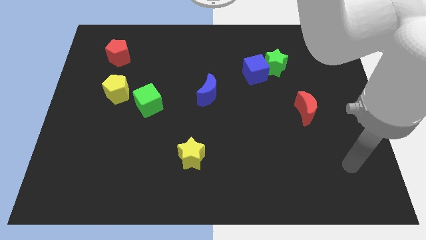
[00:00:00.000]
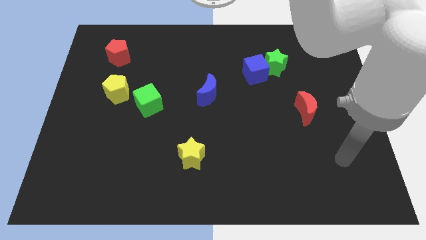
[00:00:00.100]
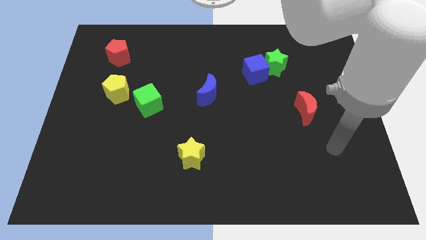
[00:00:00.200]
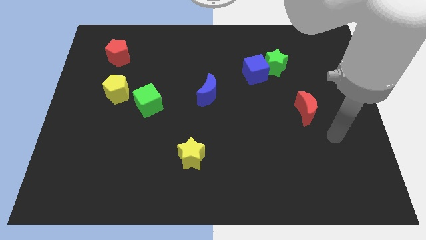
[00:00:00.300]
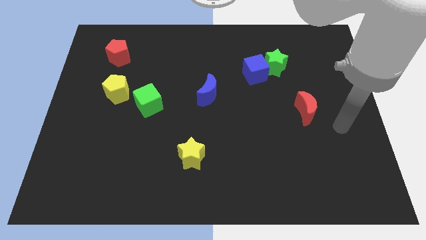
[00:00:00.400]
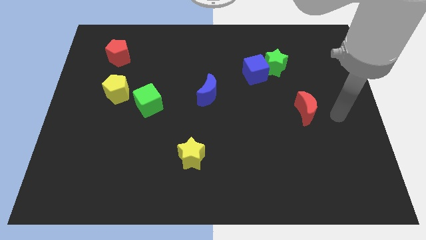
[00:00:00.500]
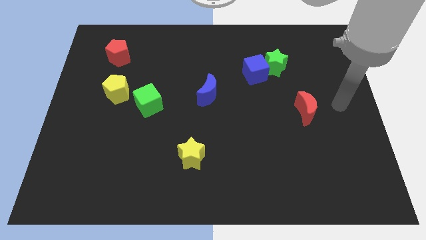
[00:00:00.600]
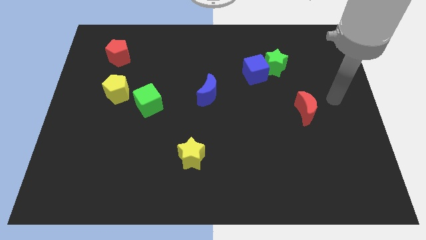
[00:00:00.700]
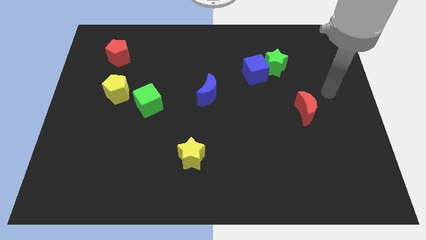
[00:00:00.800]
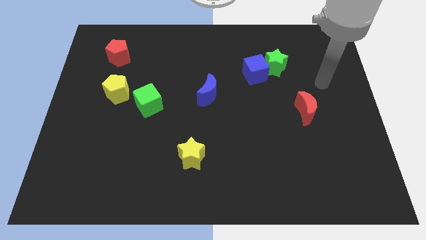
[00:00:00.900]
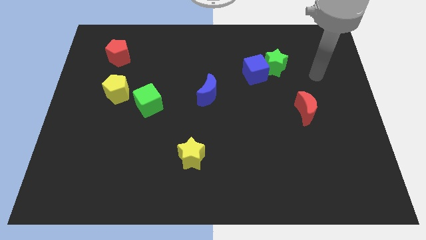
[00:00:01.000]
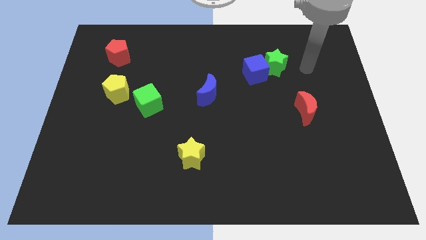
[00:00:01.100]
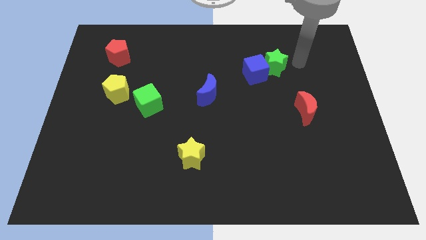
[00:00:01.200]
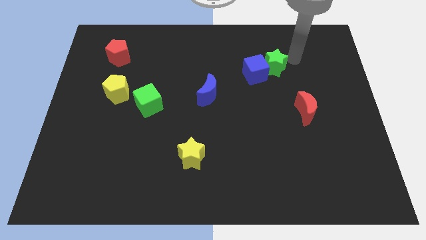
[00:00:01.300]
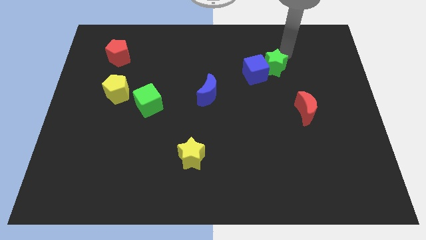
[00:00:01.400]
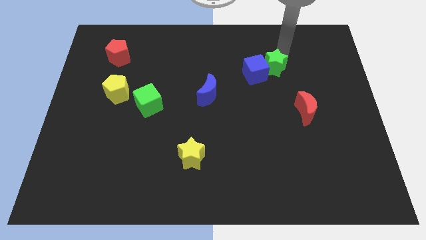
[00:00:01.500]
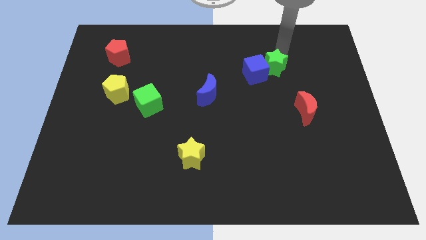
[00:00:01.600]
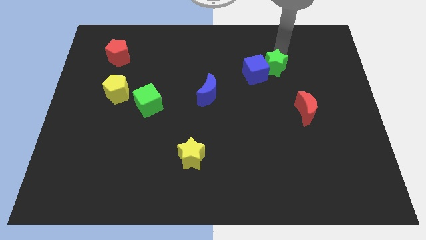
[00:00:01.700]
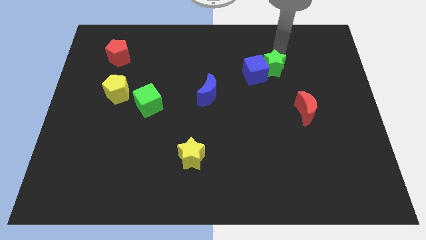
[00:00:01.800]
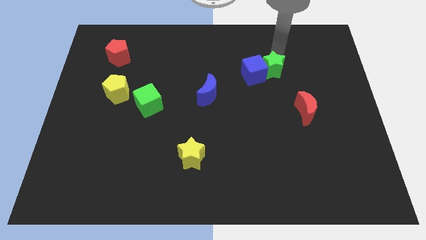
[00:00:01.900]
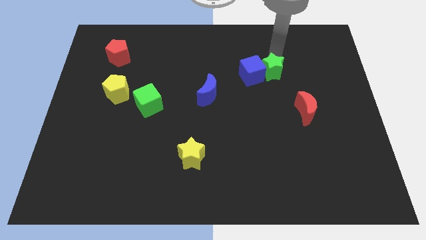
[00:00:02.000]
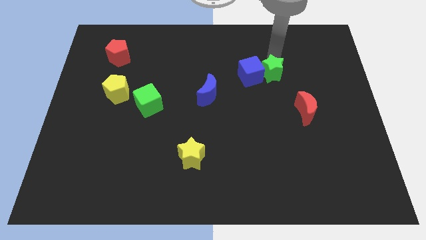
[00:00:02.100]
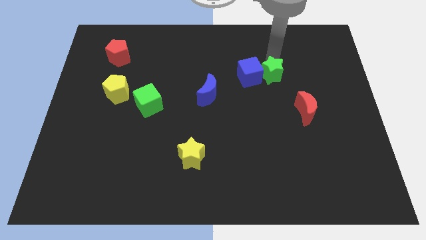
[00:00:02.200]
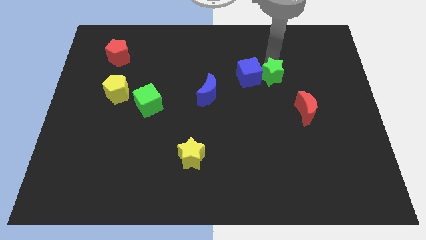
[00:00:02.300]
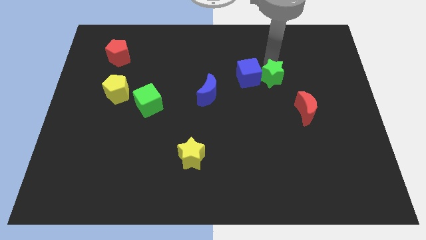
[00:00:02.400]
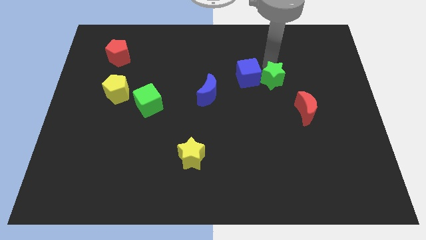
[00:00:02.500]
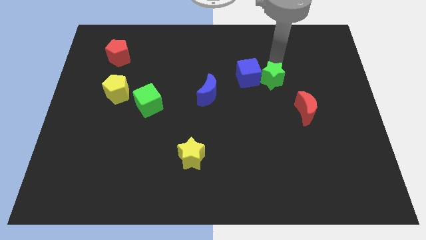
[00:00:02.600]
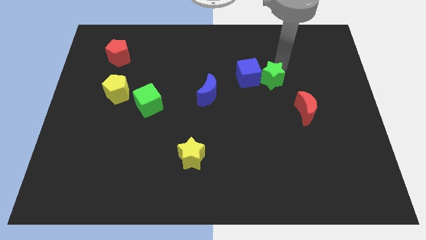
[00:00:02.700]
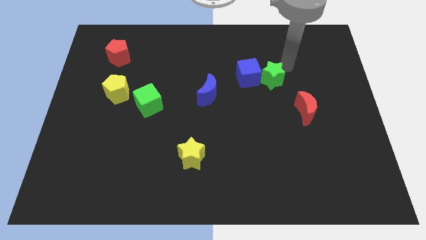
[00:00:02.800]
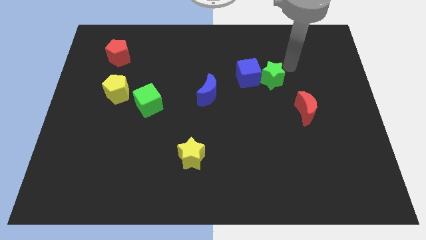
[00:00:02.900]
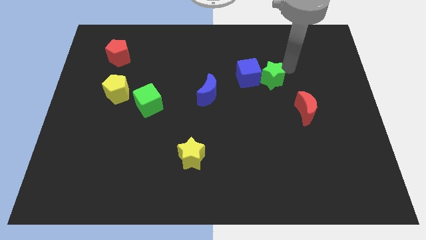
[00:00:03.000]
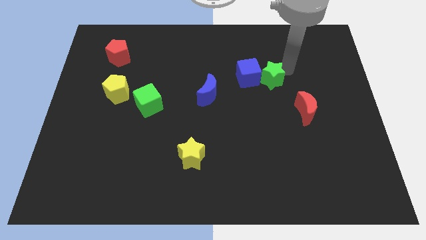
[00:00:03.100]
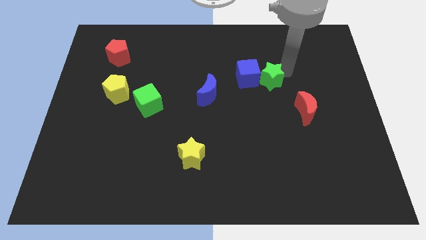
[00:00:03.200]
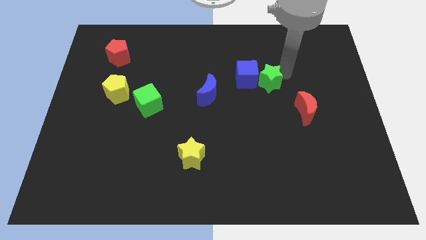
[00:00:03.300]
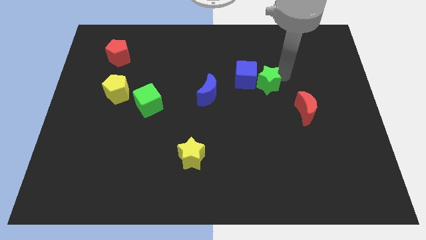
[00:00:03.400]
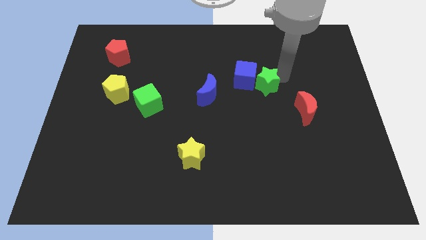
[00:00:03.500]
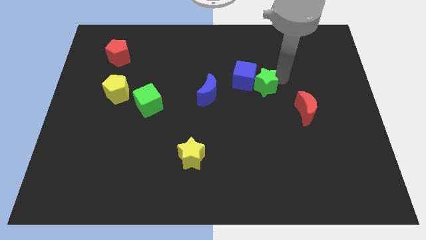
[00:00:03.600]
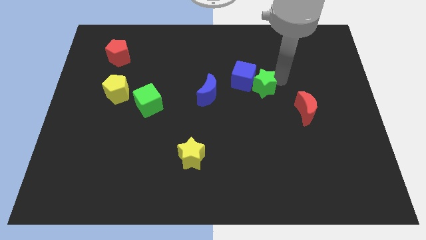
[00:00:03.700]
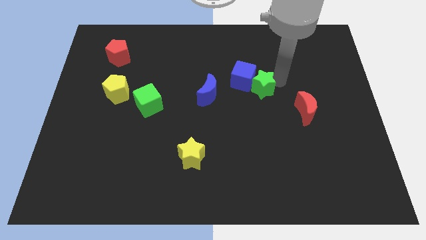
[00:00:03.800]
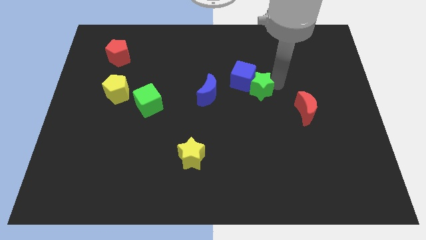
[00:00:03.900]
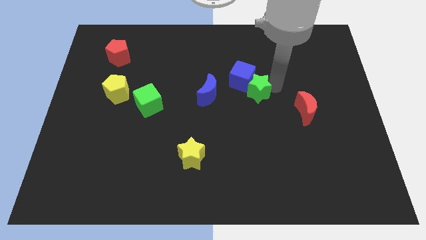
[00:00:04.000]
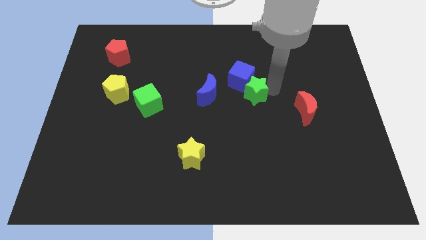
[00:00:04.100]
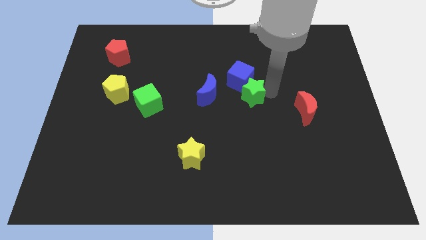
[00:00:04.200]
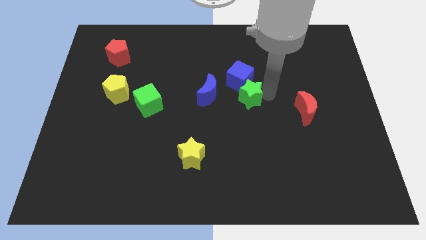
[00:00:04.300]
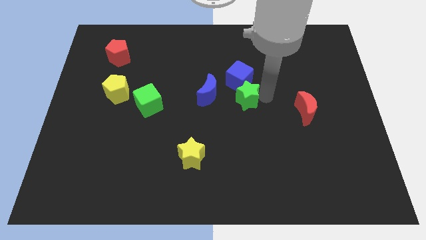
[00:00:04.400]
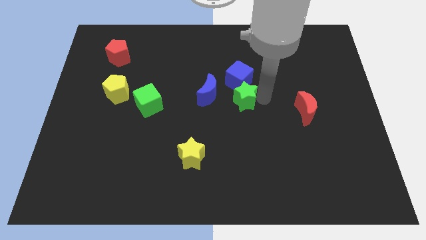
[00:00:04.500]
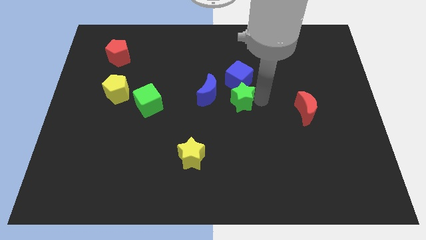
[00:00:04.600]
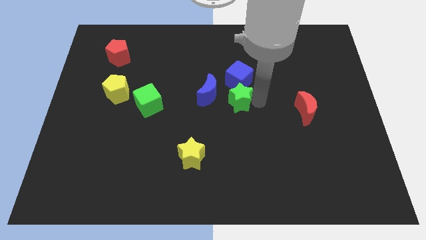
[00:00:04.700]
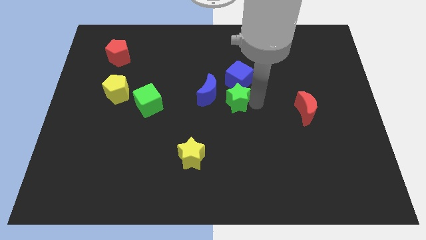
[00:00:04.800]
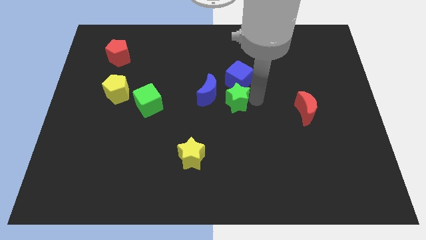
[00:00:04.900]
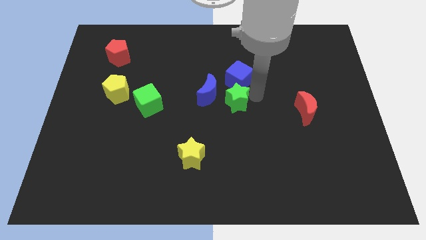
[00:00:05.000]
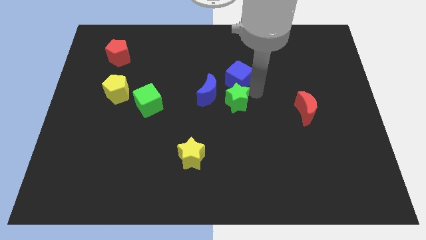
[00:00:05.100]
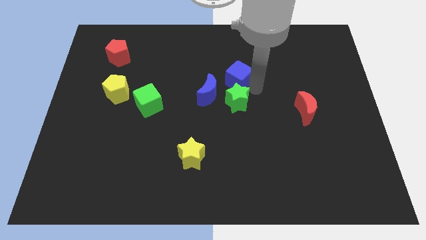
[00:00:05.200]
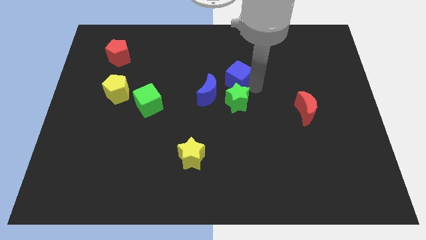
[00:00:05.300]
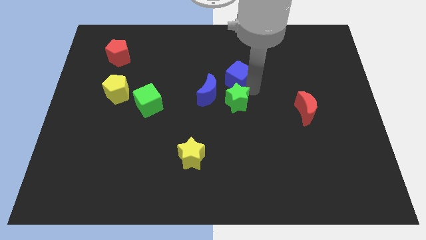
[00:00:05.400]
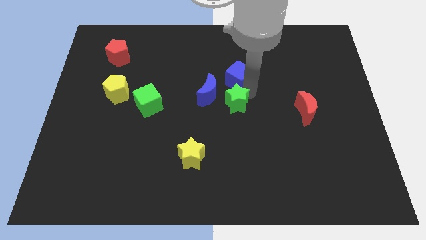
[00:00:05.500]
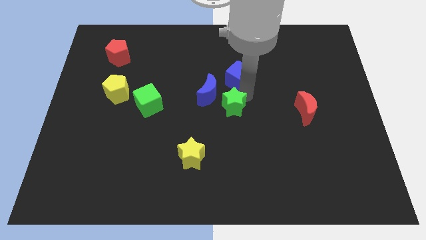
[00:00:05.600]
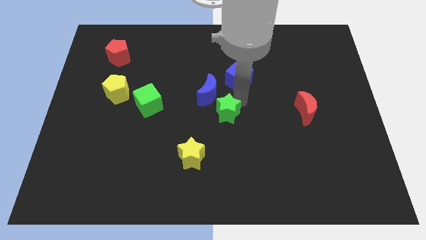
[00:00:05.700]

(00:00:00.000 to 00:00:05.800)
push the green star to the bottom side of the blue moon

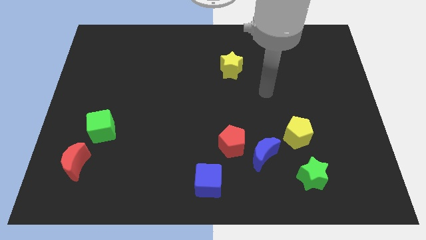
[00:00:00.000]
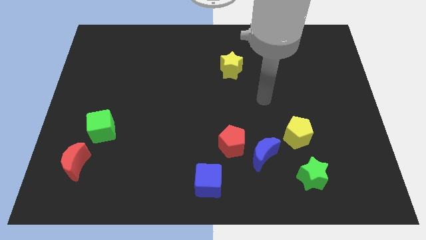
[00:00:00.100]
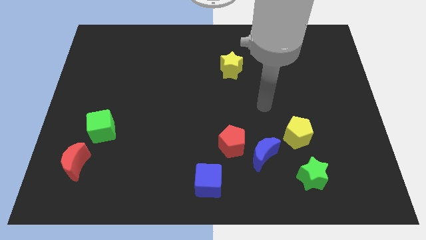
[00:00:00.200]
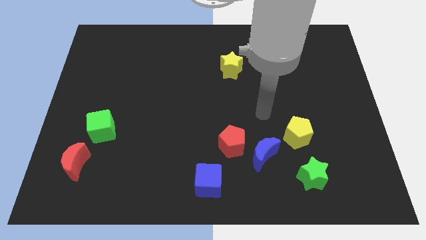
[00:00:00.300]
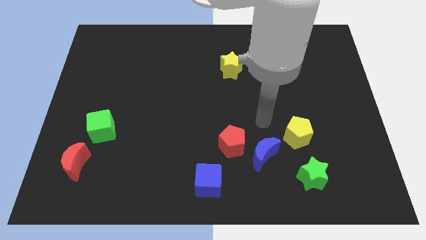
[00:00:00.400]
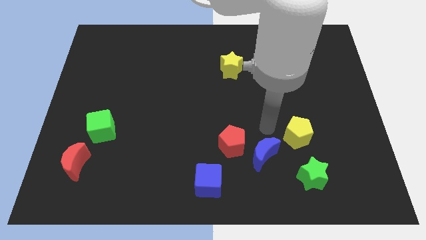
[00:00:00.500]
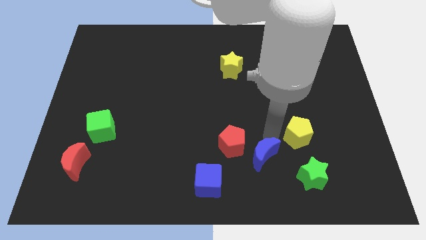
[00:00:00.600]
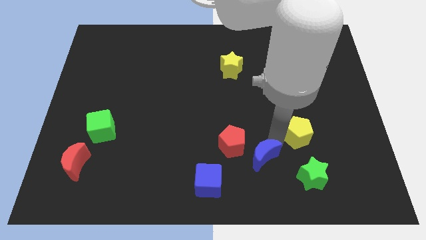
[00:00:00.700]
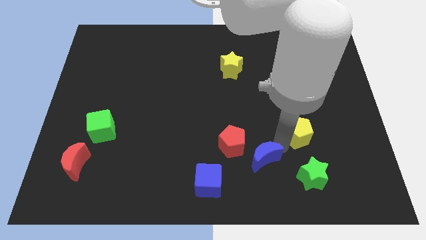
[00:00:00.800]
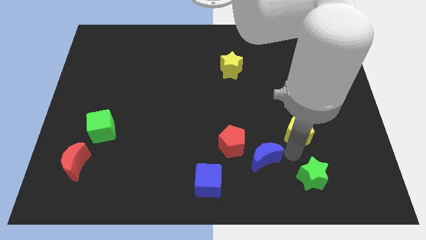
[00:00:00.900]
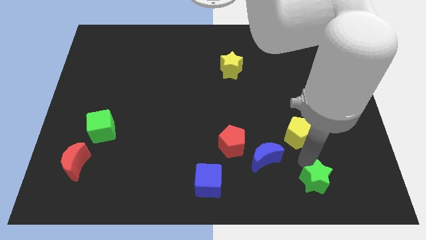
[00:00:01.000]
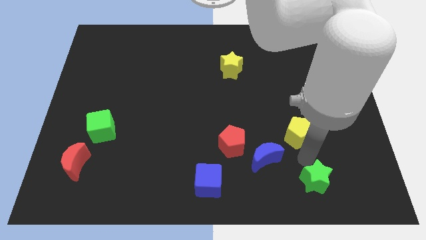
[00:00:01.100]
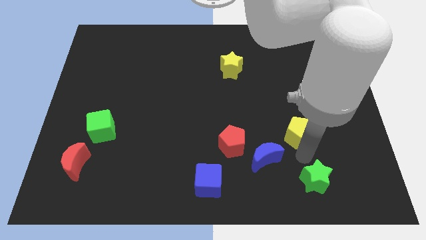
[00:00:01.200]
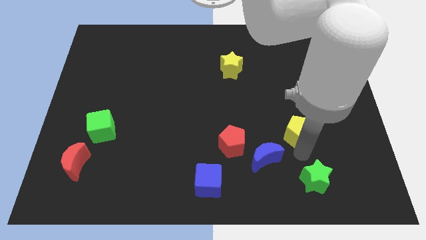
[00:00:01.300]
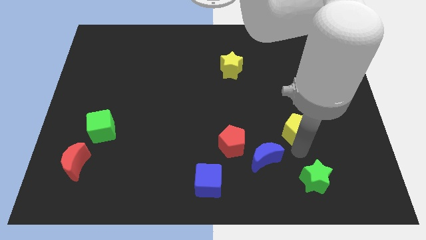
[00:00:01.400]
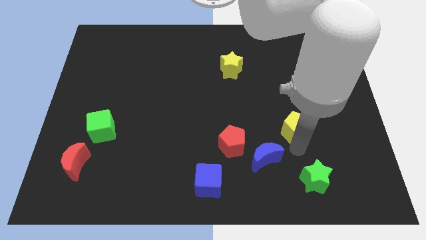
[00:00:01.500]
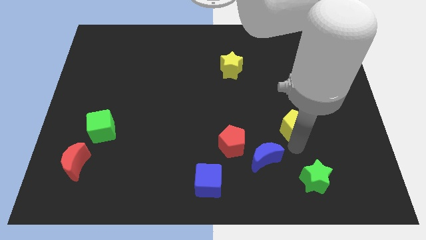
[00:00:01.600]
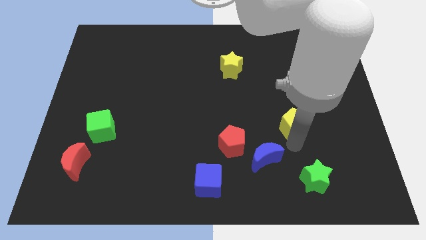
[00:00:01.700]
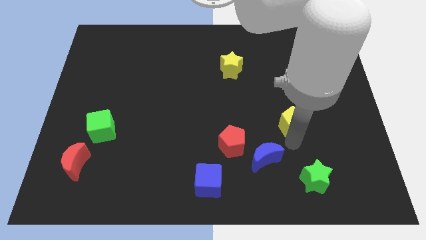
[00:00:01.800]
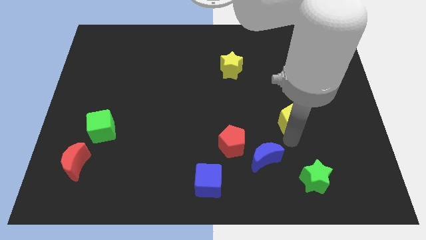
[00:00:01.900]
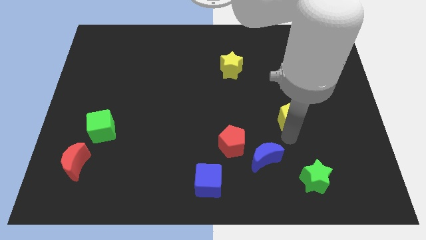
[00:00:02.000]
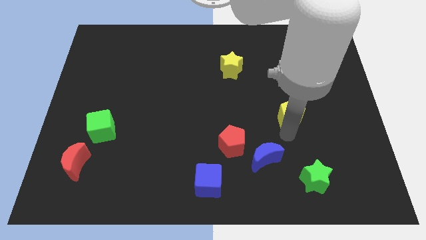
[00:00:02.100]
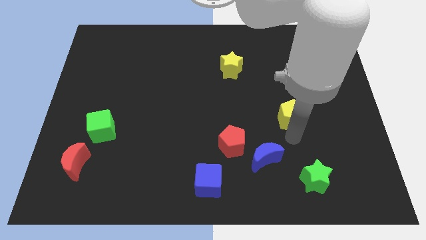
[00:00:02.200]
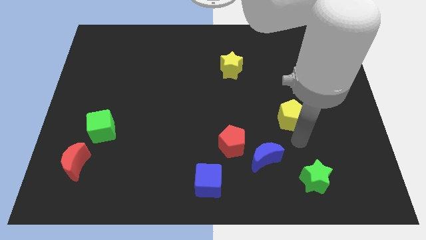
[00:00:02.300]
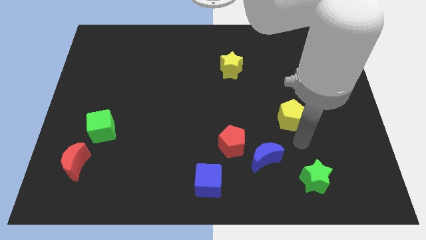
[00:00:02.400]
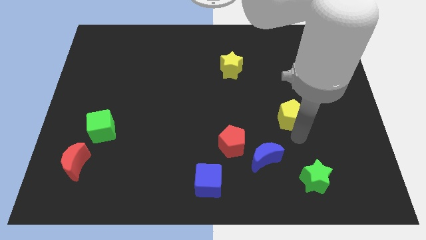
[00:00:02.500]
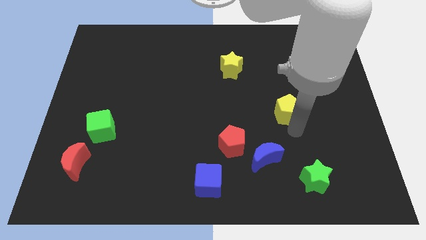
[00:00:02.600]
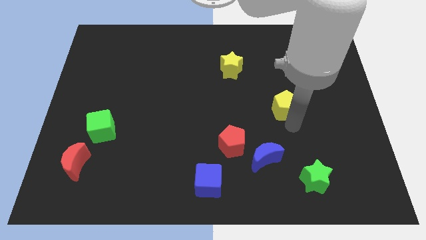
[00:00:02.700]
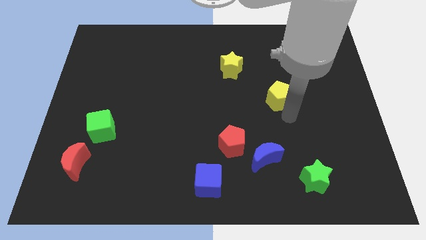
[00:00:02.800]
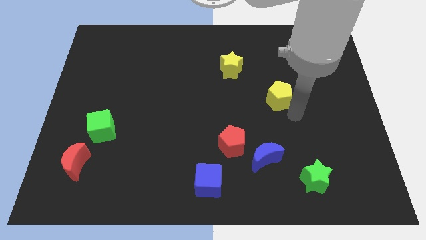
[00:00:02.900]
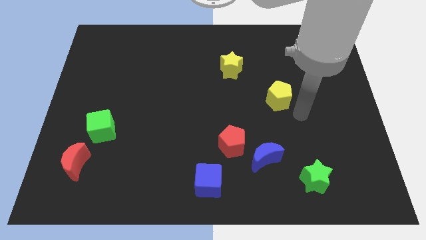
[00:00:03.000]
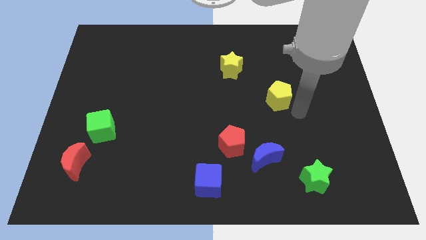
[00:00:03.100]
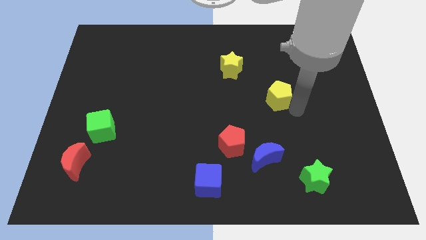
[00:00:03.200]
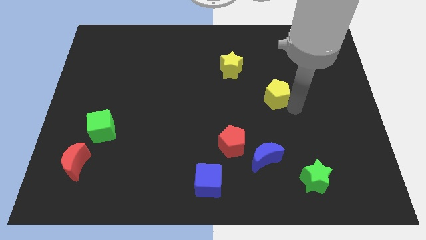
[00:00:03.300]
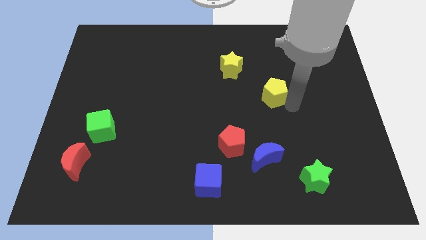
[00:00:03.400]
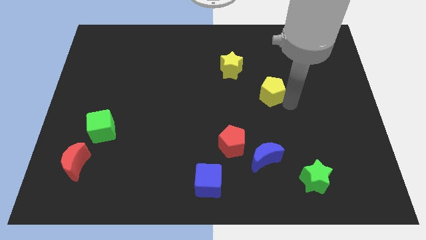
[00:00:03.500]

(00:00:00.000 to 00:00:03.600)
move the yellow pentagon to the bottom right of the yellow star
